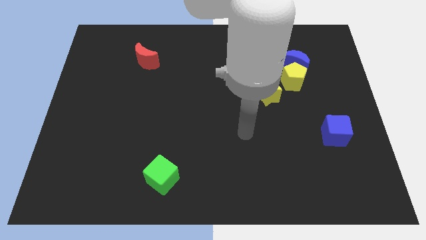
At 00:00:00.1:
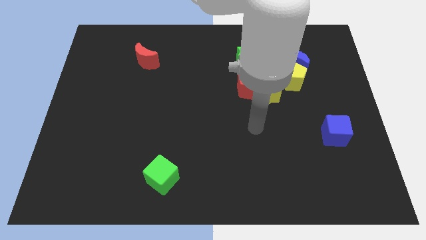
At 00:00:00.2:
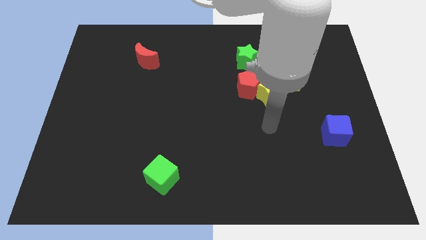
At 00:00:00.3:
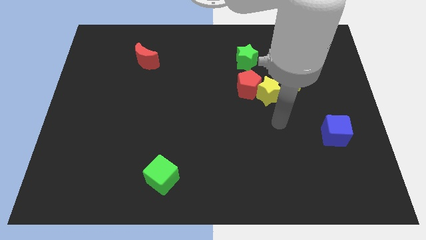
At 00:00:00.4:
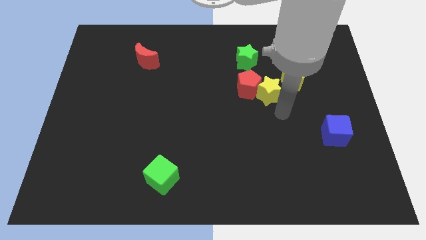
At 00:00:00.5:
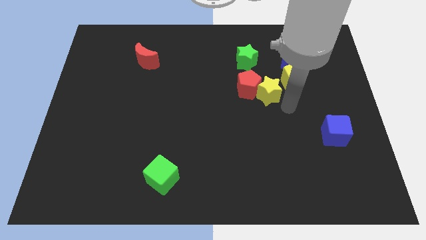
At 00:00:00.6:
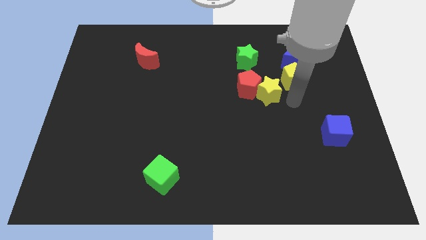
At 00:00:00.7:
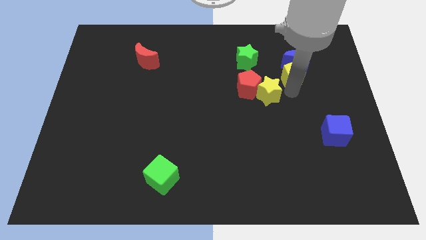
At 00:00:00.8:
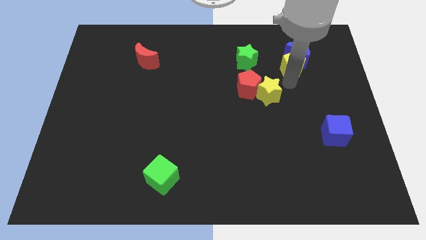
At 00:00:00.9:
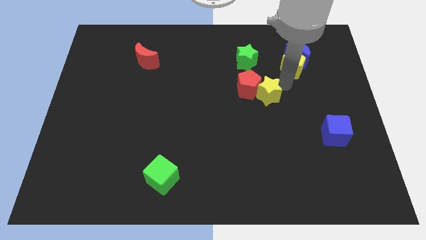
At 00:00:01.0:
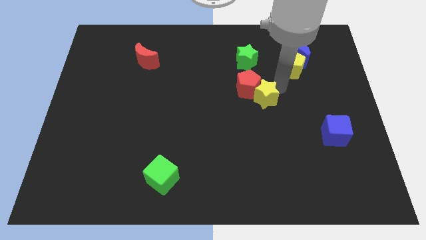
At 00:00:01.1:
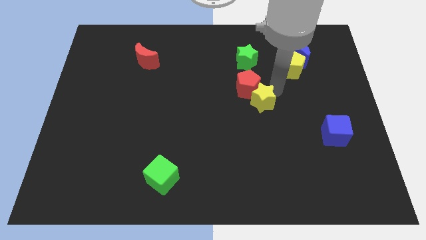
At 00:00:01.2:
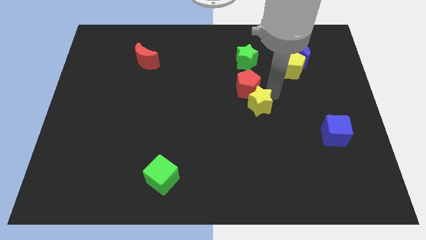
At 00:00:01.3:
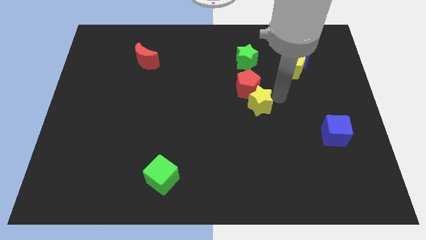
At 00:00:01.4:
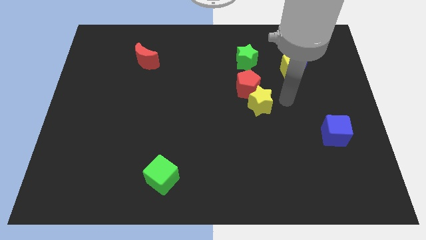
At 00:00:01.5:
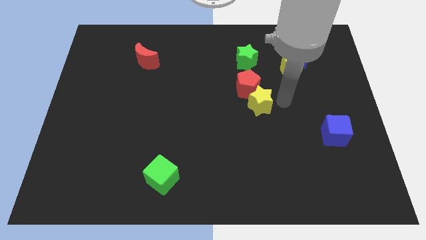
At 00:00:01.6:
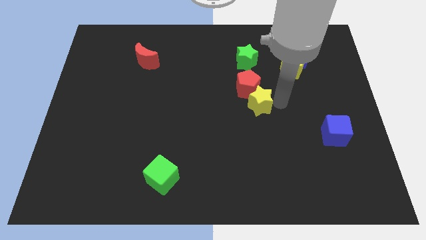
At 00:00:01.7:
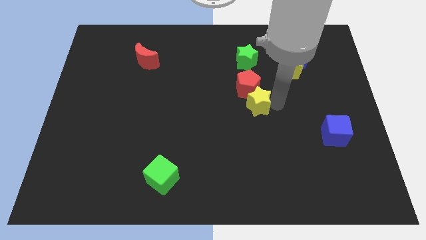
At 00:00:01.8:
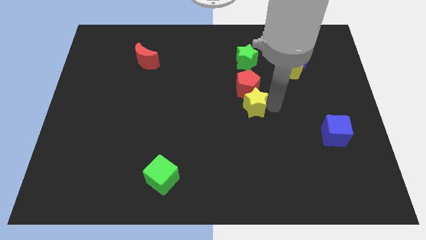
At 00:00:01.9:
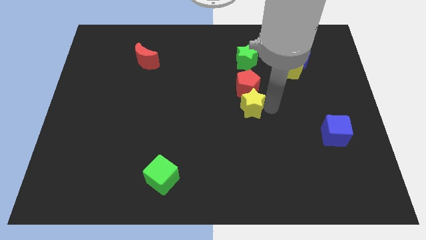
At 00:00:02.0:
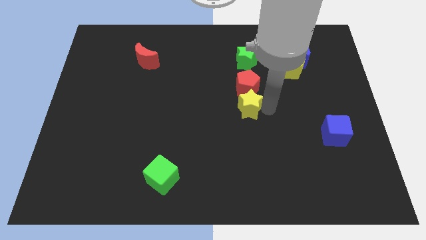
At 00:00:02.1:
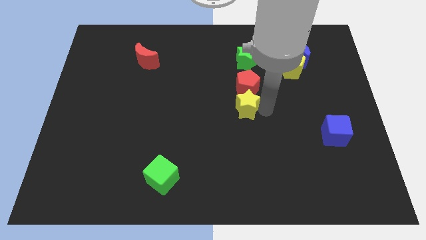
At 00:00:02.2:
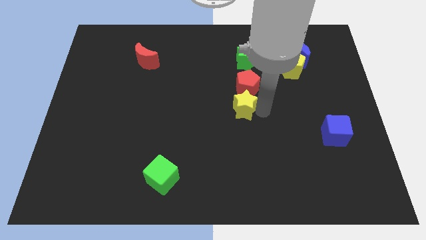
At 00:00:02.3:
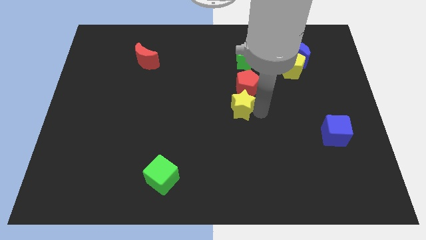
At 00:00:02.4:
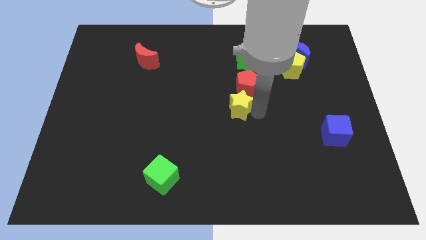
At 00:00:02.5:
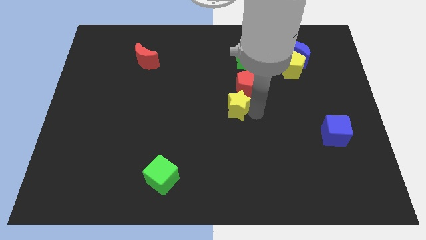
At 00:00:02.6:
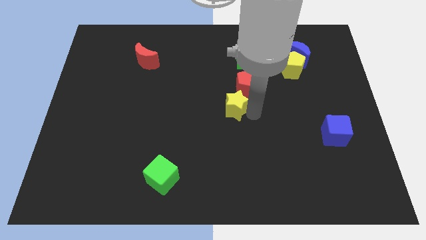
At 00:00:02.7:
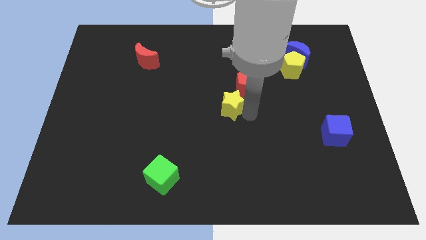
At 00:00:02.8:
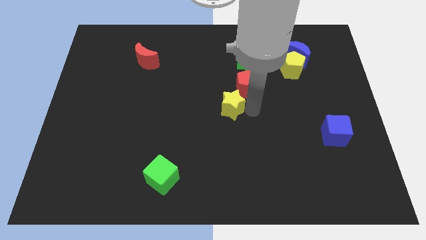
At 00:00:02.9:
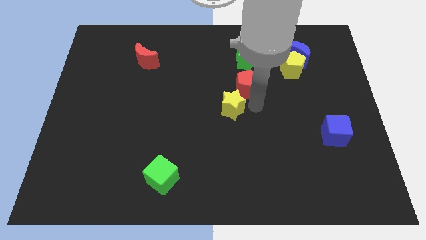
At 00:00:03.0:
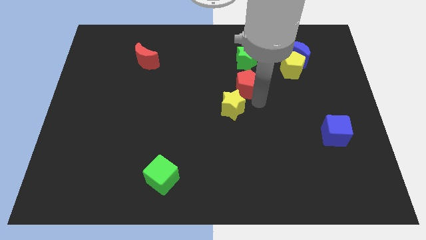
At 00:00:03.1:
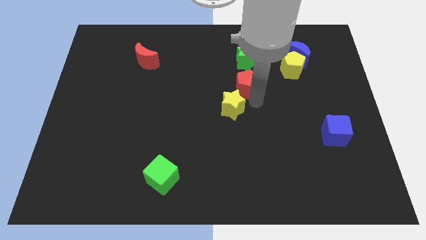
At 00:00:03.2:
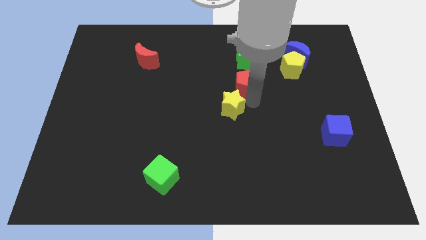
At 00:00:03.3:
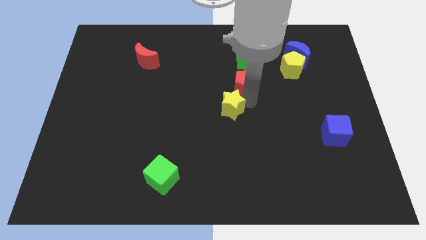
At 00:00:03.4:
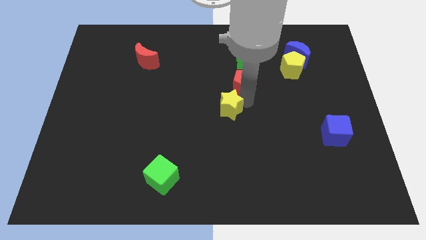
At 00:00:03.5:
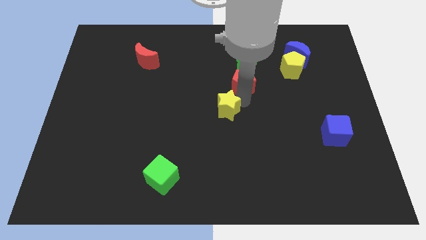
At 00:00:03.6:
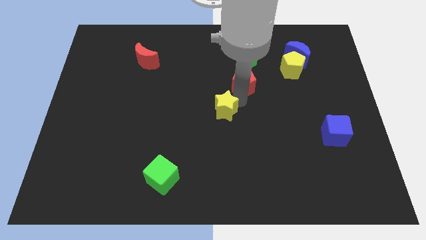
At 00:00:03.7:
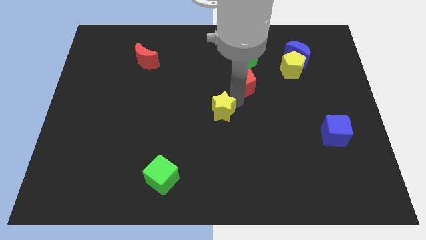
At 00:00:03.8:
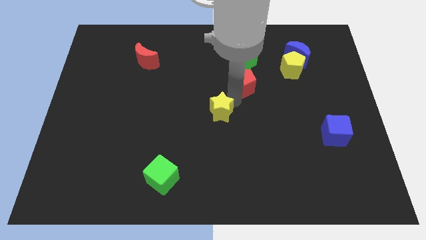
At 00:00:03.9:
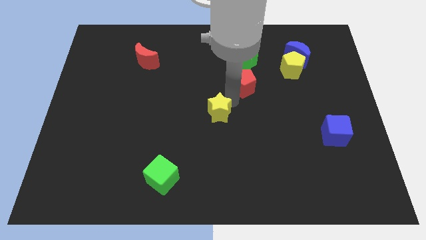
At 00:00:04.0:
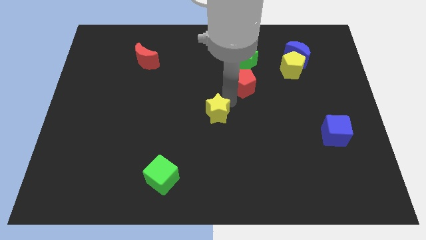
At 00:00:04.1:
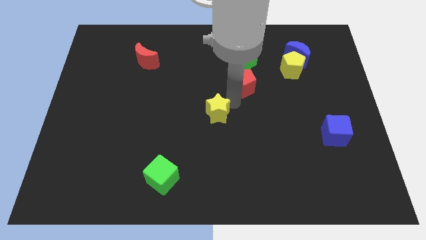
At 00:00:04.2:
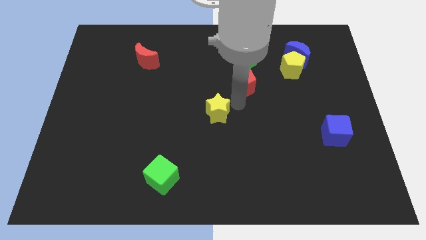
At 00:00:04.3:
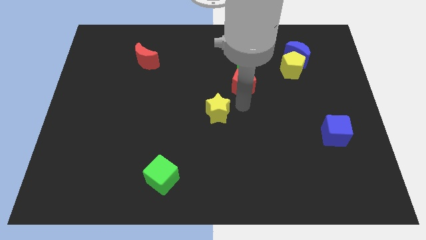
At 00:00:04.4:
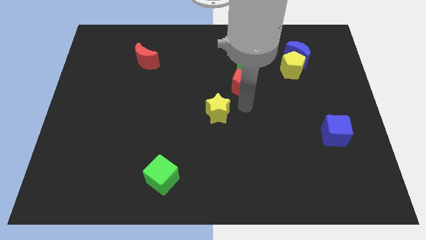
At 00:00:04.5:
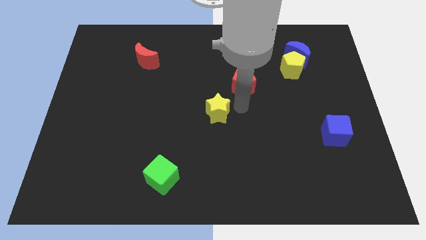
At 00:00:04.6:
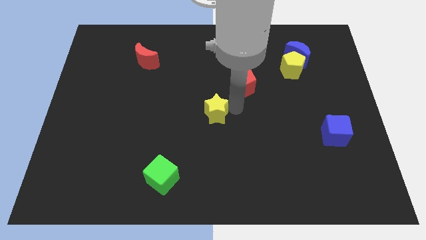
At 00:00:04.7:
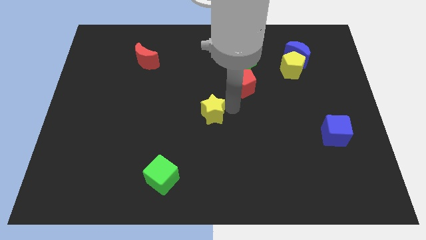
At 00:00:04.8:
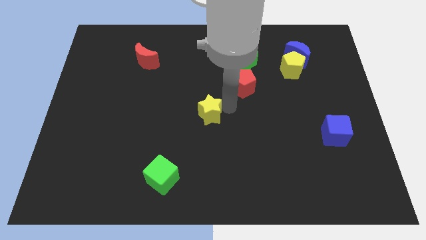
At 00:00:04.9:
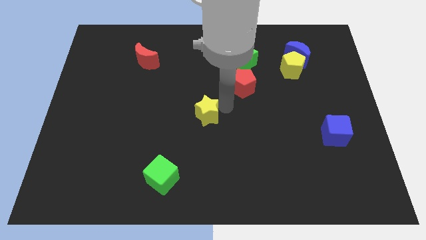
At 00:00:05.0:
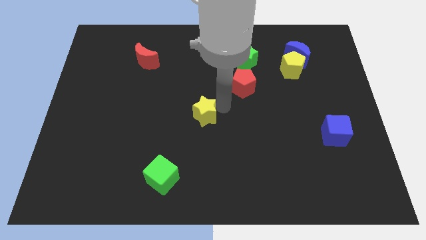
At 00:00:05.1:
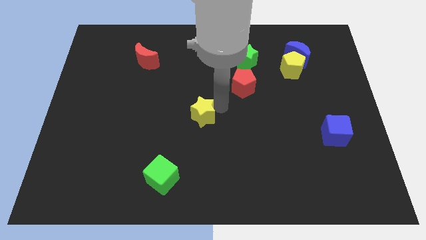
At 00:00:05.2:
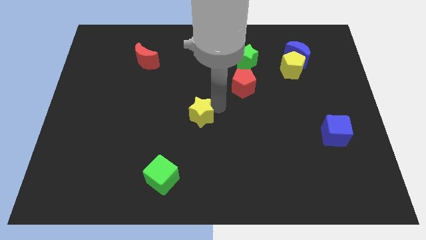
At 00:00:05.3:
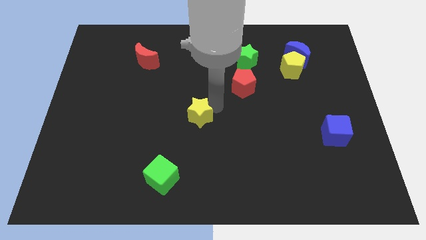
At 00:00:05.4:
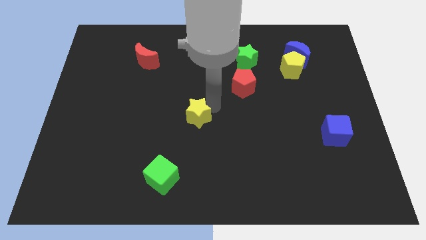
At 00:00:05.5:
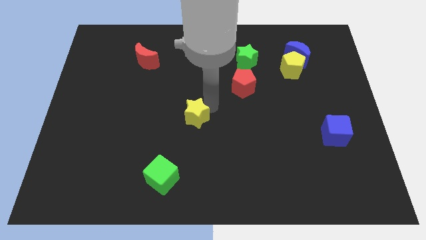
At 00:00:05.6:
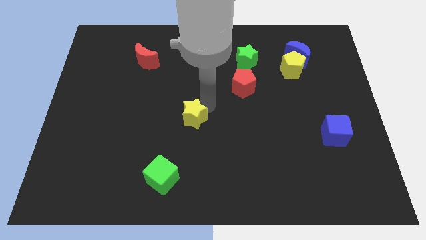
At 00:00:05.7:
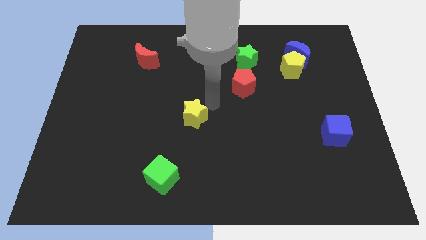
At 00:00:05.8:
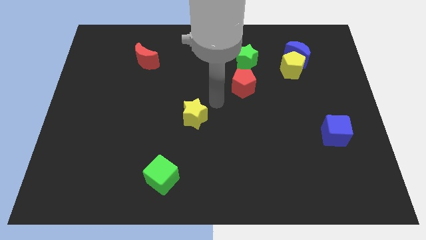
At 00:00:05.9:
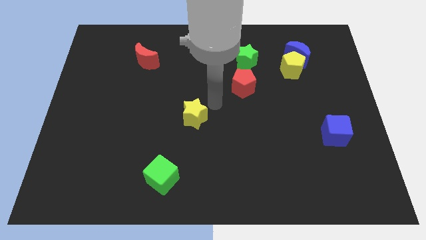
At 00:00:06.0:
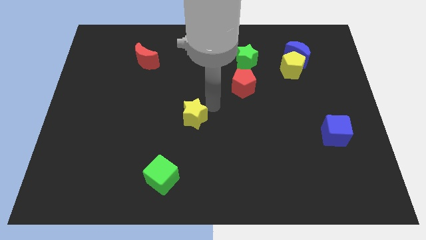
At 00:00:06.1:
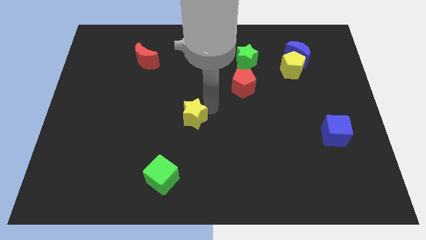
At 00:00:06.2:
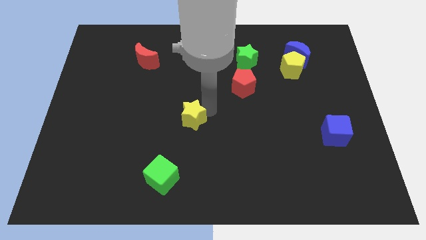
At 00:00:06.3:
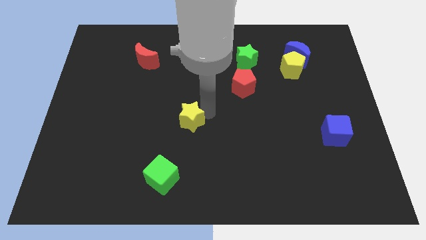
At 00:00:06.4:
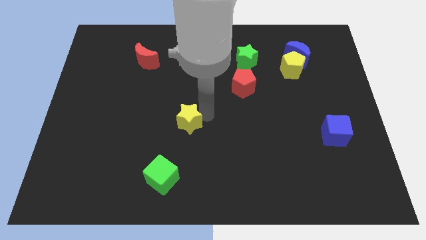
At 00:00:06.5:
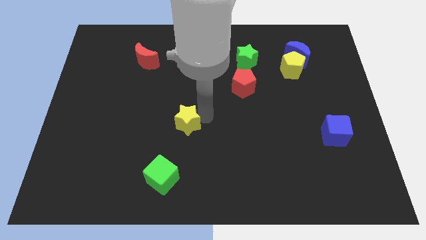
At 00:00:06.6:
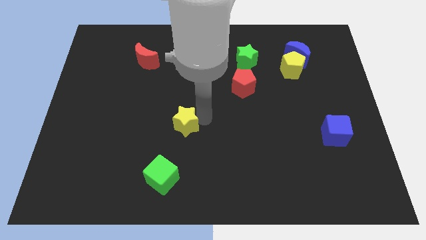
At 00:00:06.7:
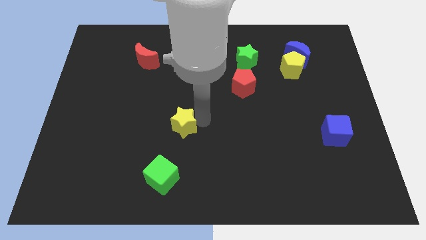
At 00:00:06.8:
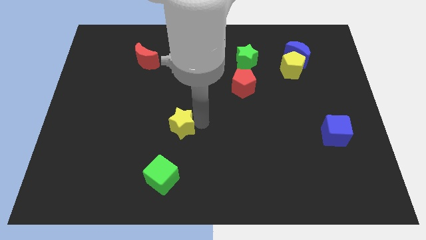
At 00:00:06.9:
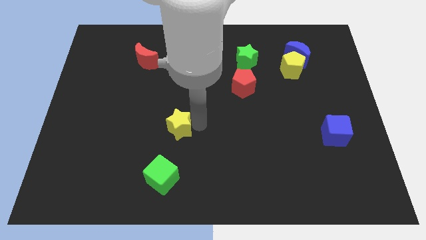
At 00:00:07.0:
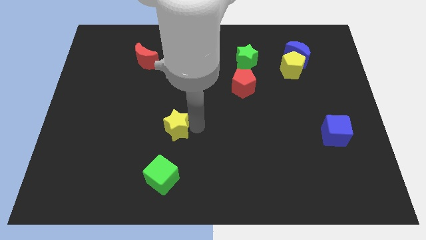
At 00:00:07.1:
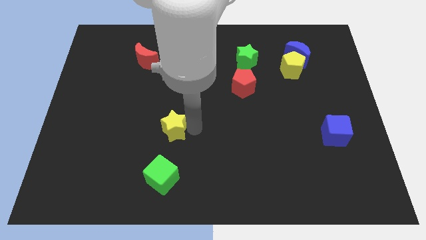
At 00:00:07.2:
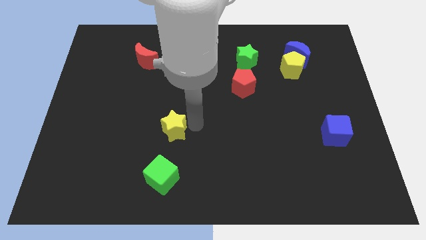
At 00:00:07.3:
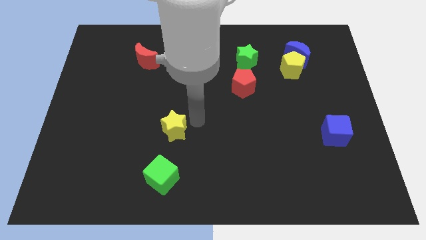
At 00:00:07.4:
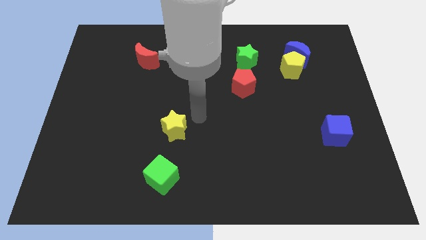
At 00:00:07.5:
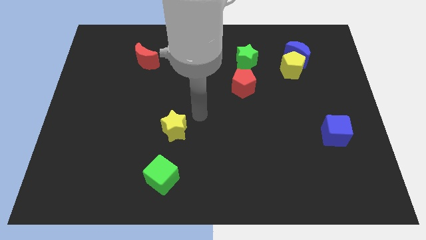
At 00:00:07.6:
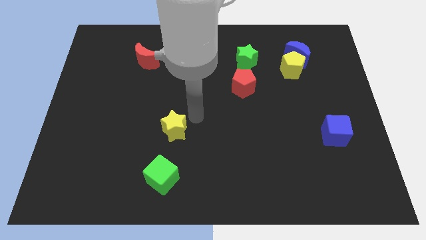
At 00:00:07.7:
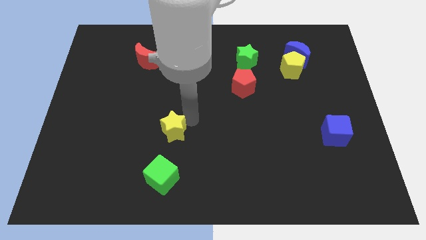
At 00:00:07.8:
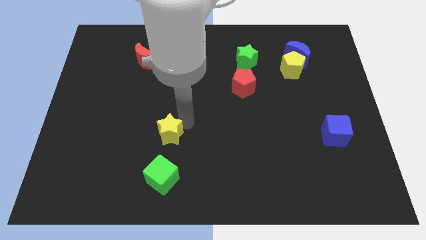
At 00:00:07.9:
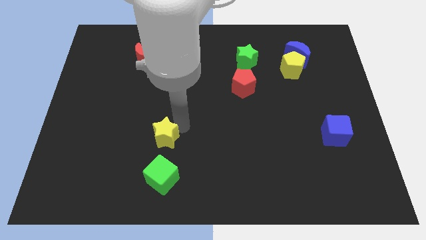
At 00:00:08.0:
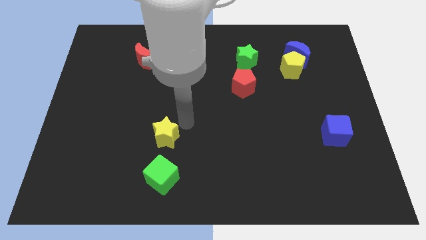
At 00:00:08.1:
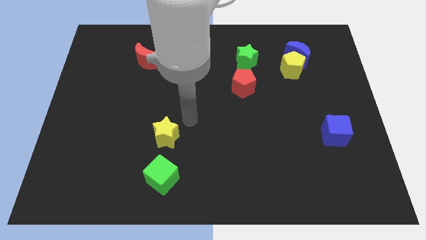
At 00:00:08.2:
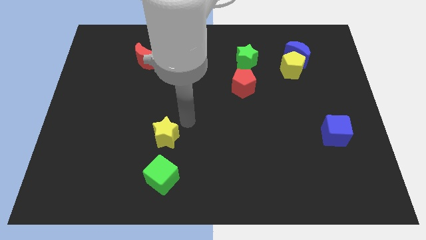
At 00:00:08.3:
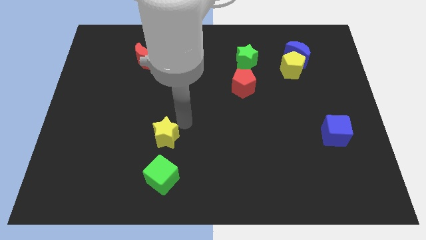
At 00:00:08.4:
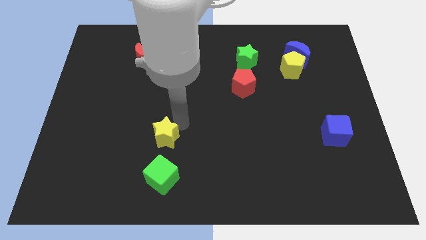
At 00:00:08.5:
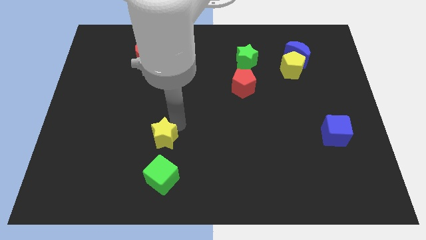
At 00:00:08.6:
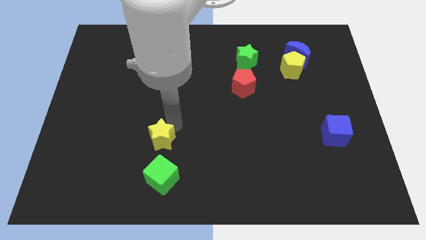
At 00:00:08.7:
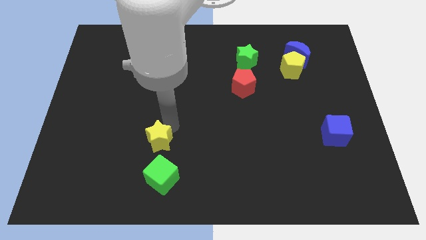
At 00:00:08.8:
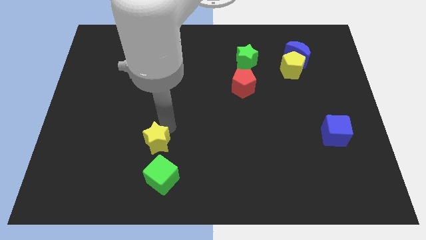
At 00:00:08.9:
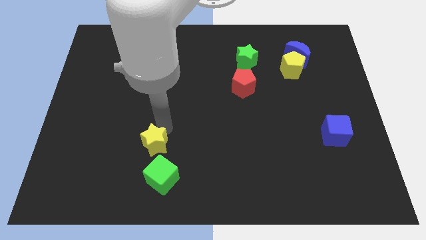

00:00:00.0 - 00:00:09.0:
move the yellow star to the top left of the green cube
